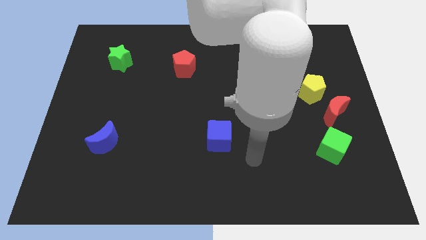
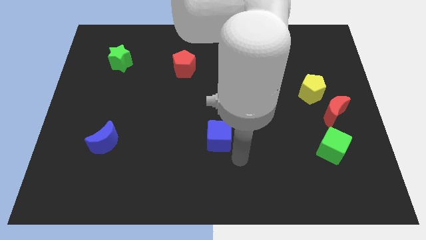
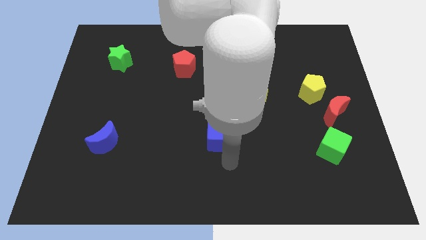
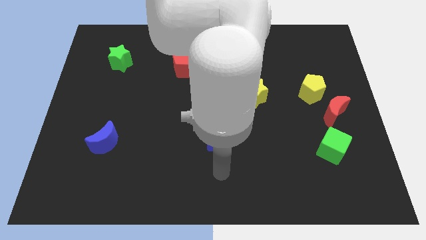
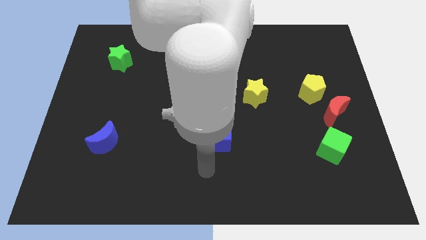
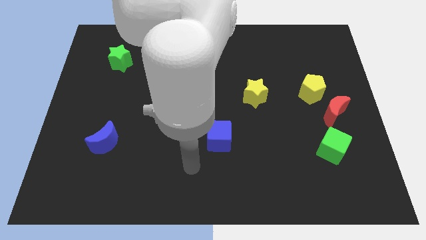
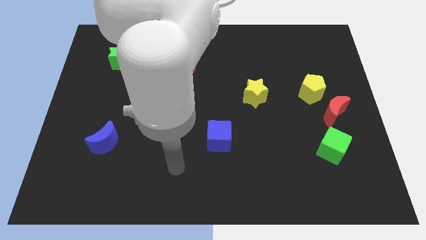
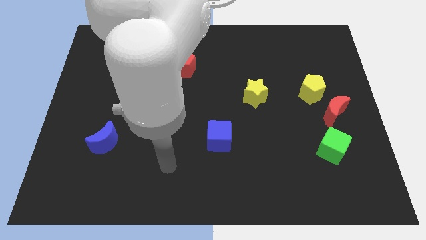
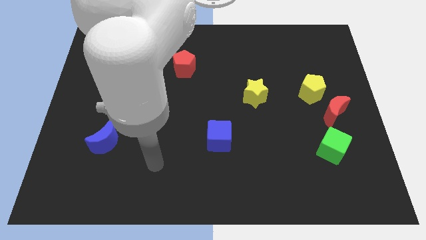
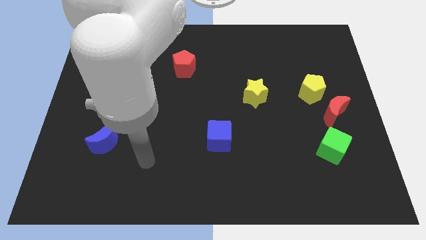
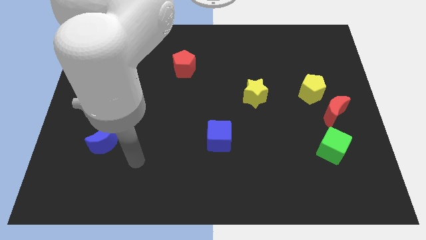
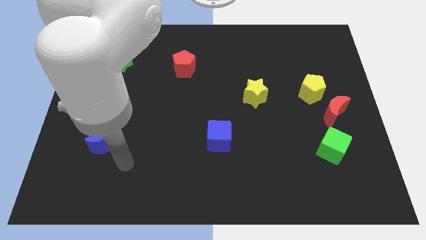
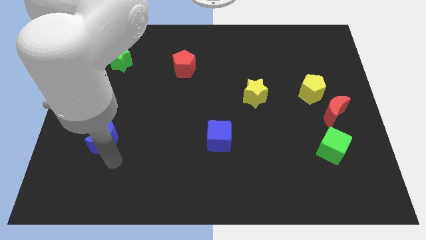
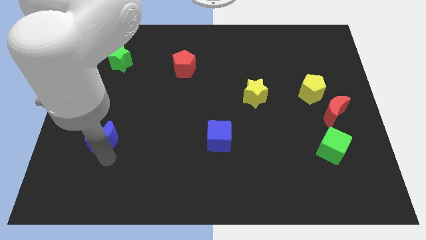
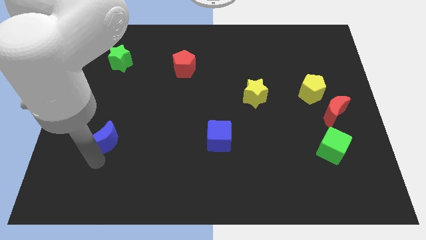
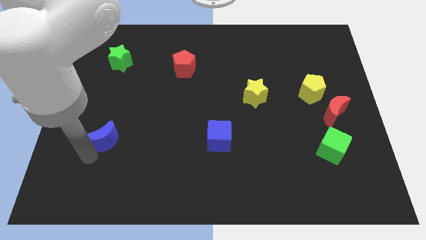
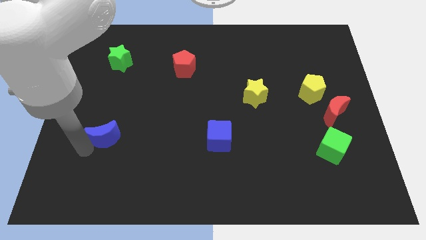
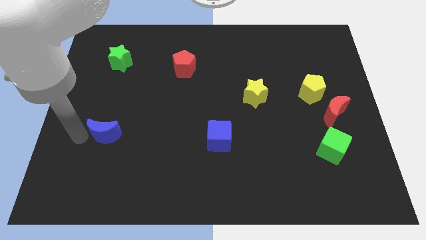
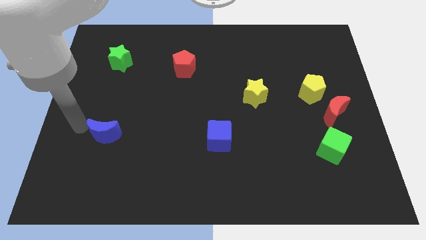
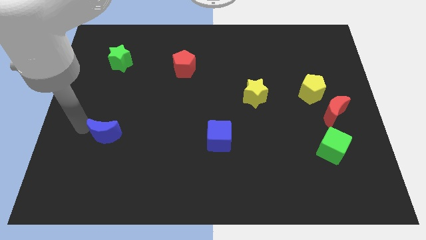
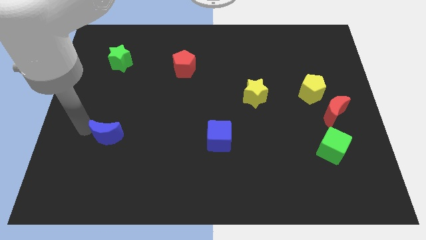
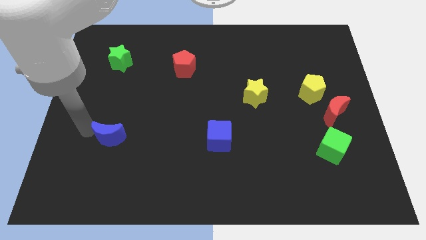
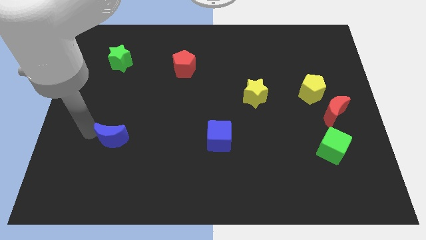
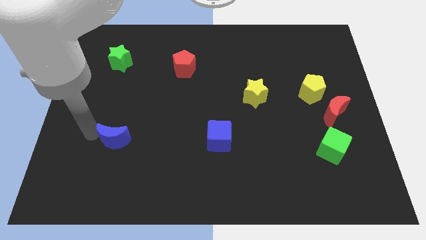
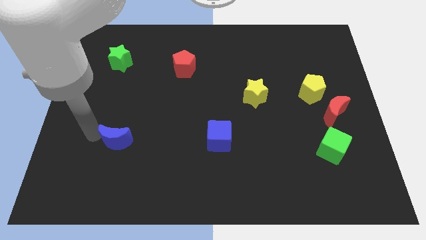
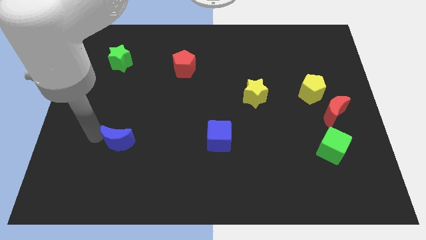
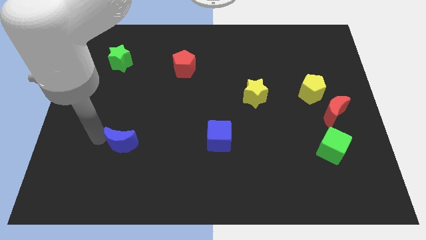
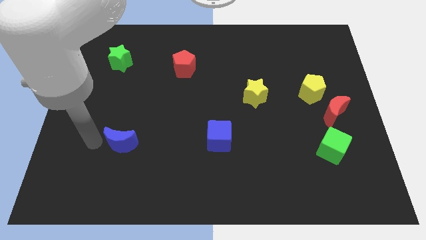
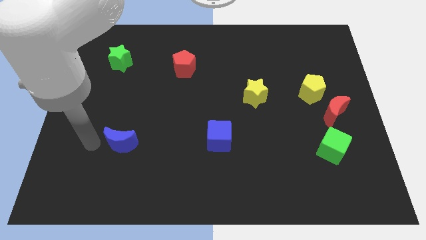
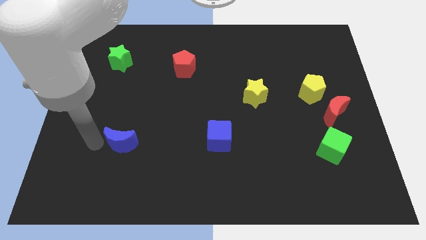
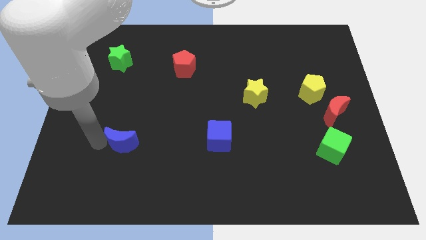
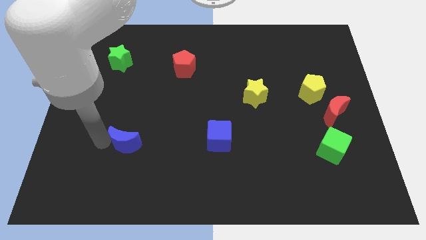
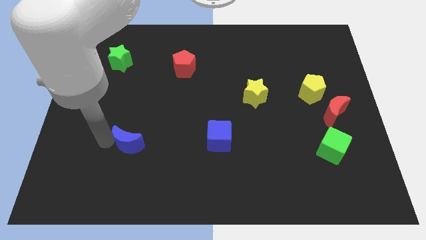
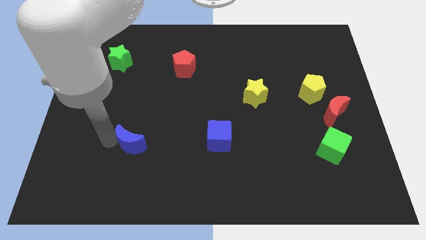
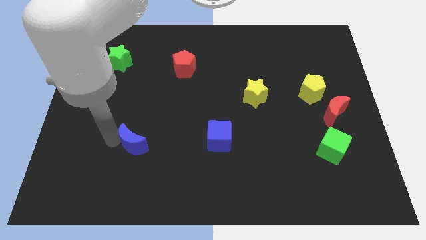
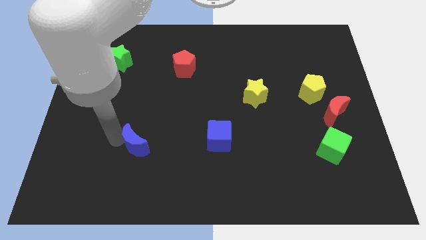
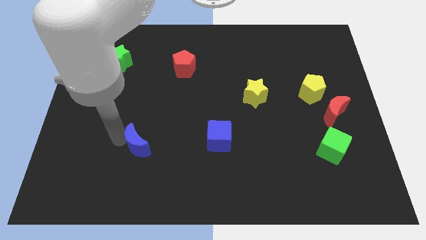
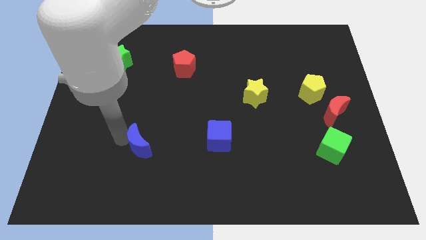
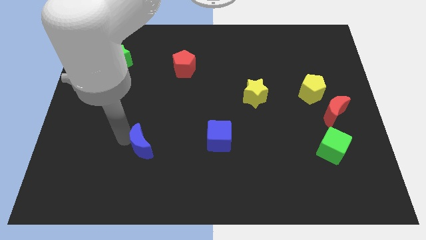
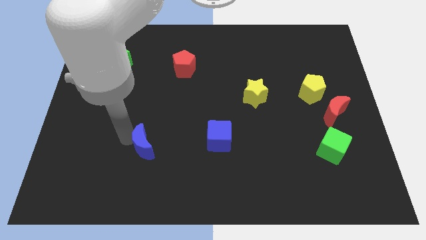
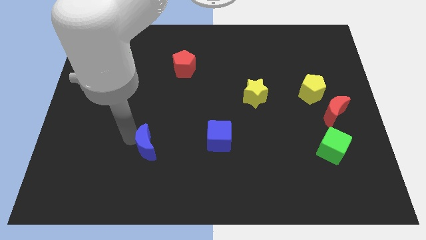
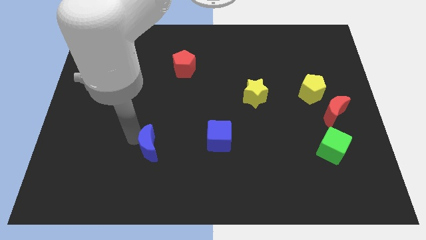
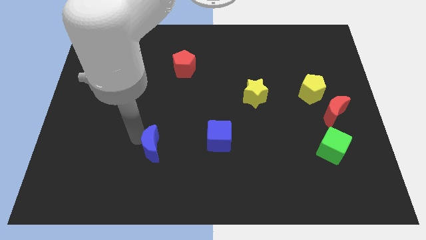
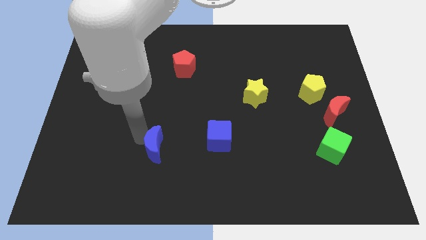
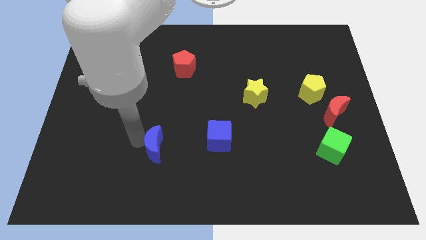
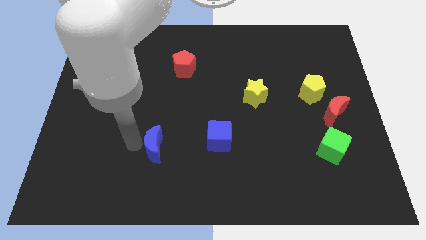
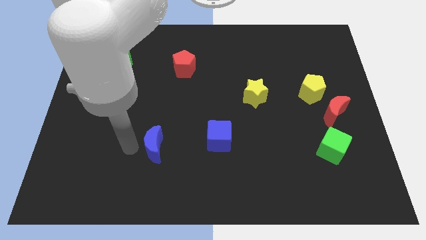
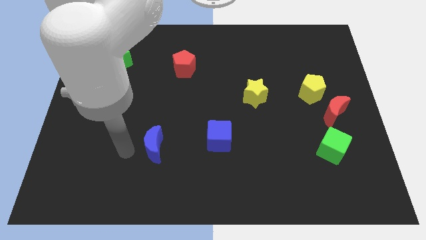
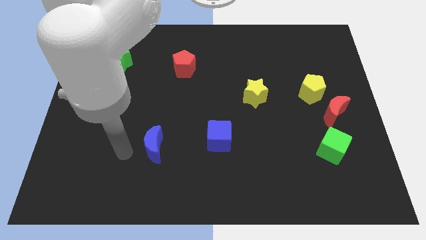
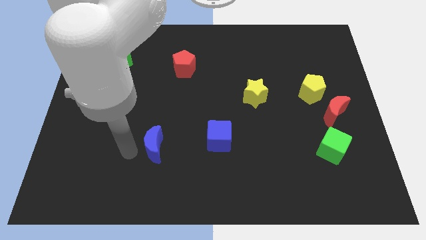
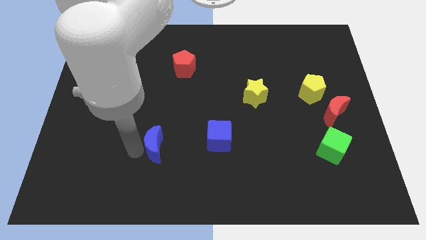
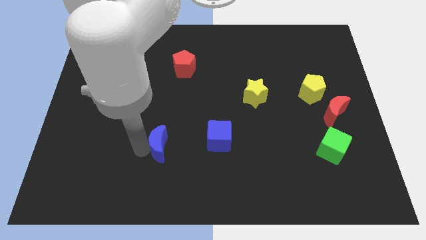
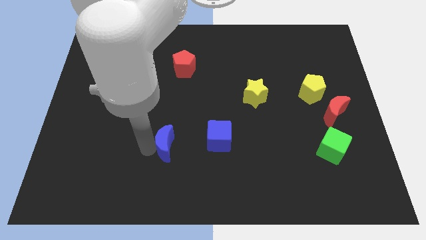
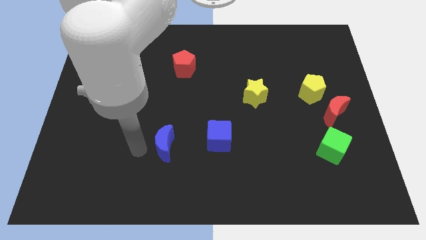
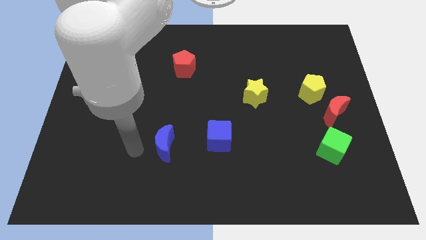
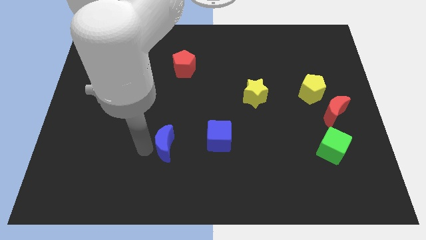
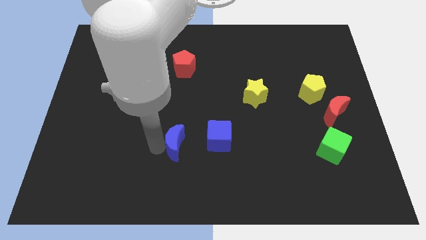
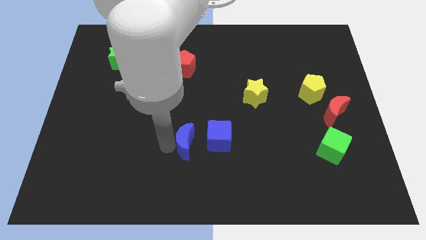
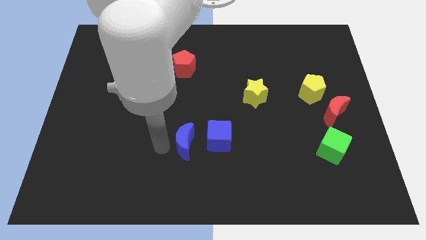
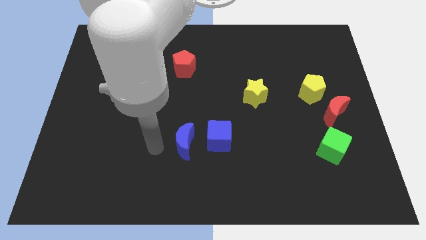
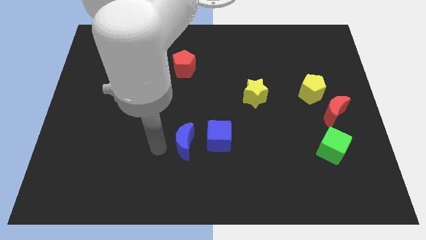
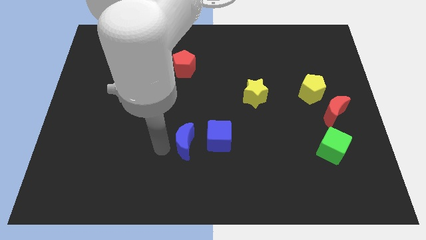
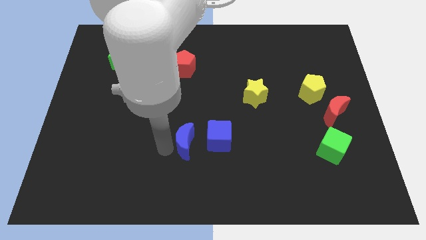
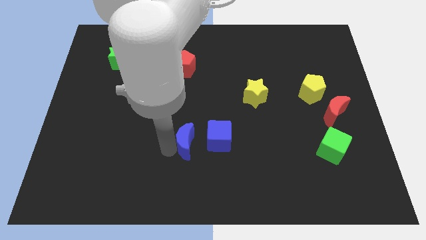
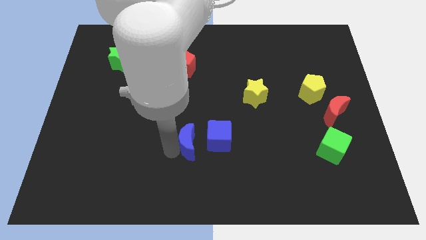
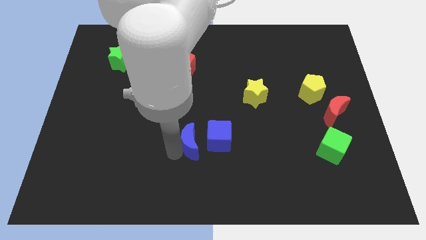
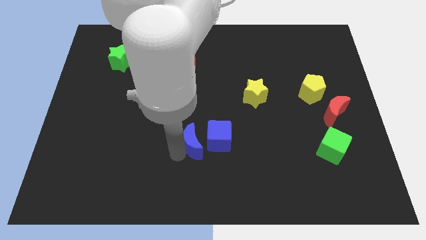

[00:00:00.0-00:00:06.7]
slide the blue moon to the blue cube

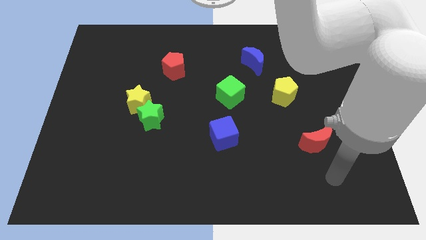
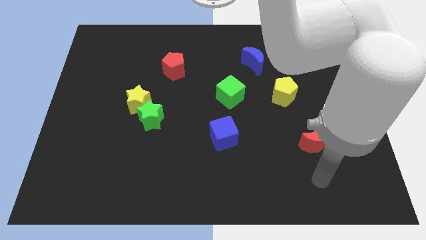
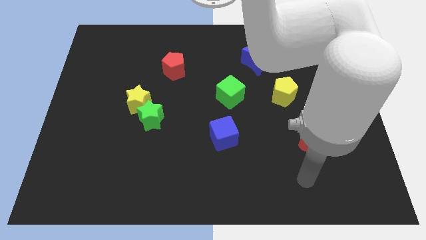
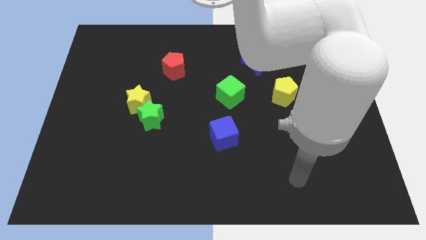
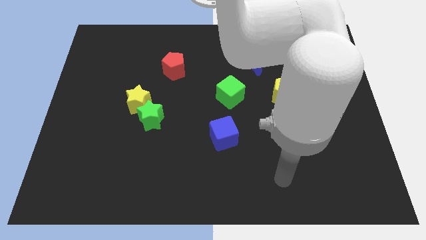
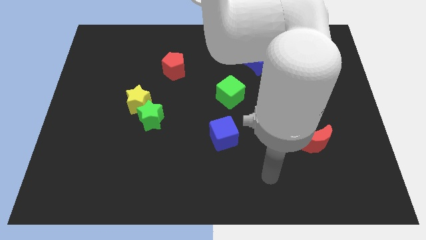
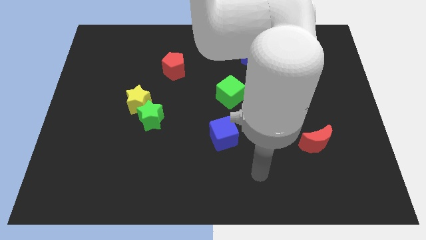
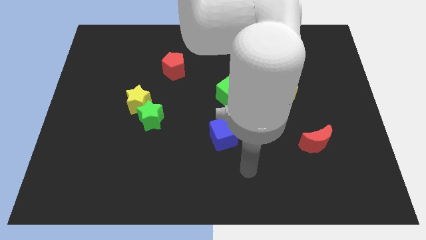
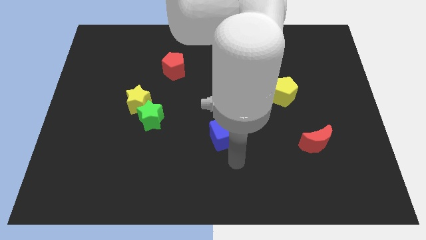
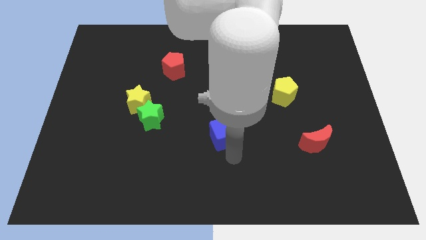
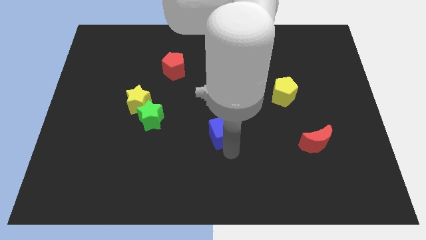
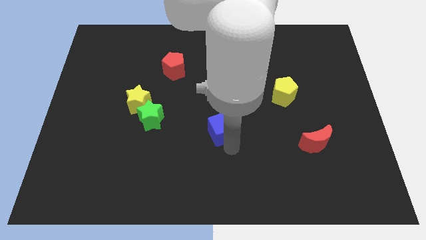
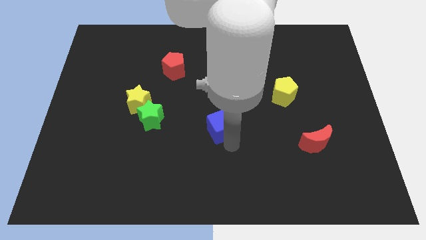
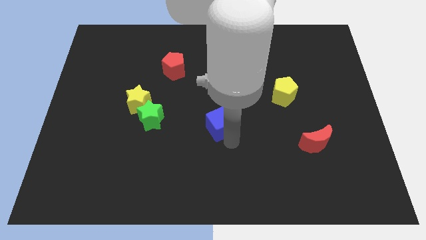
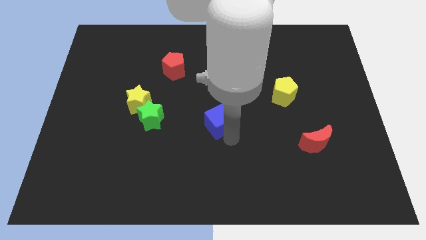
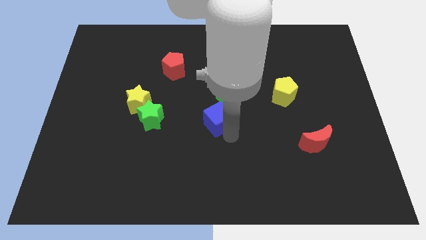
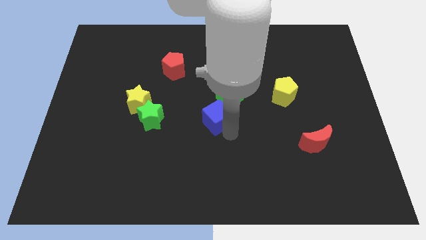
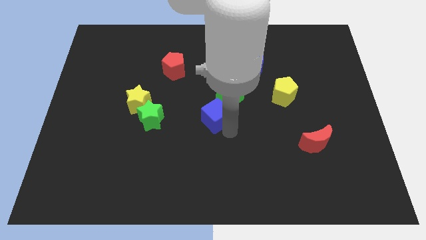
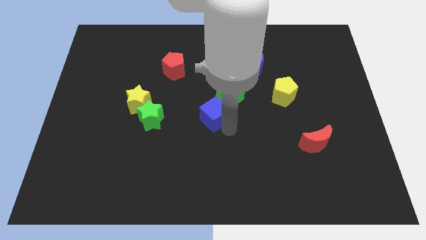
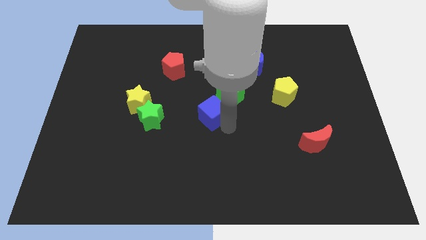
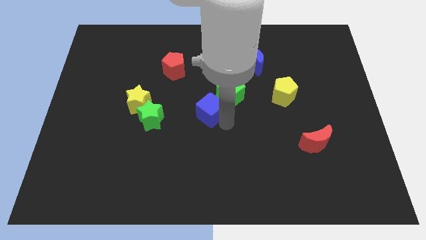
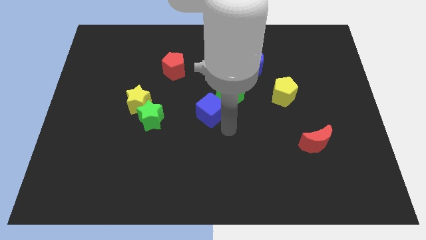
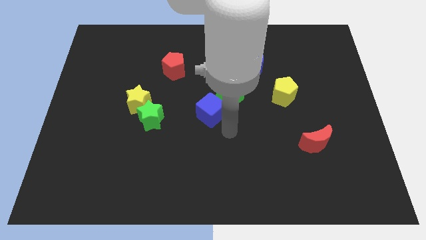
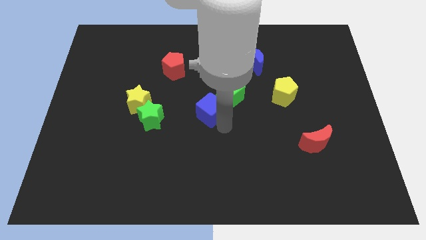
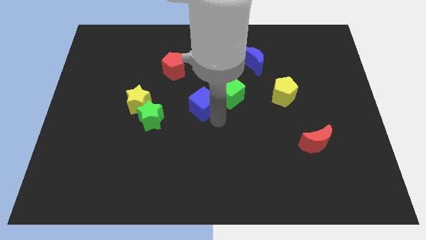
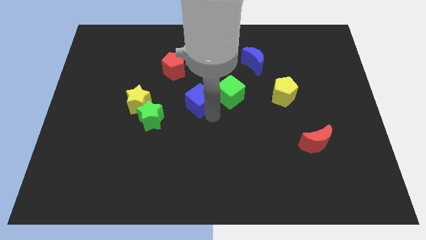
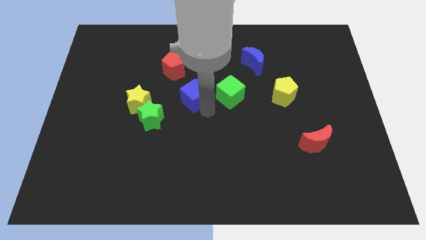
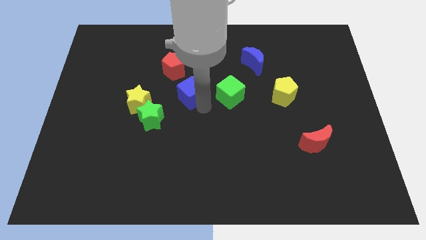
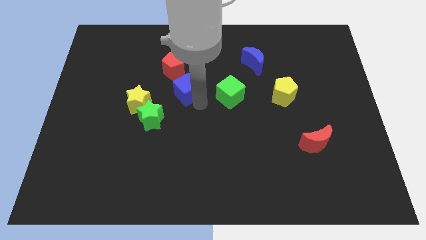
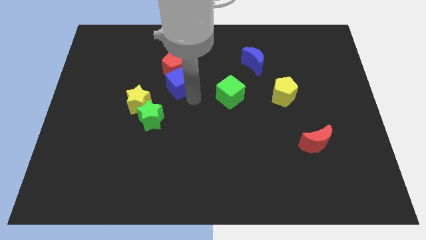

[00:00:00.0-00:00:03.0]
push the blue cube to the red pentagon
